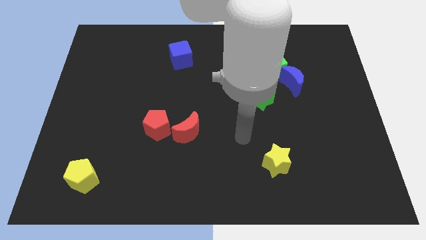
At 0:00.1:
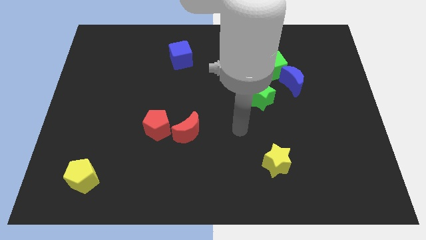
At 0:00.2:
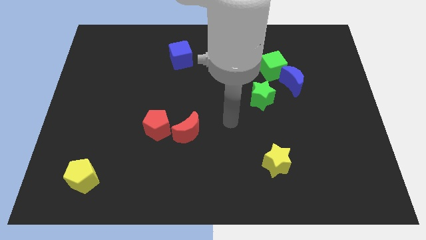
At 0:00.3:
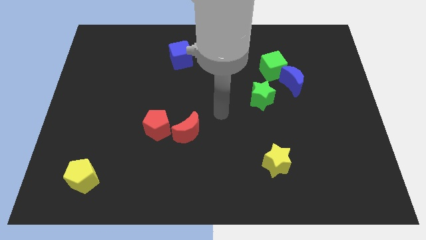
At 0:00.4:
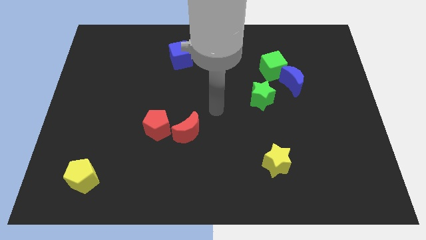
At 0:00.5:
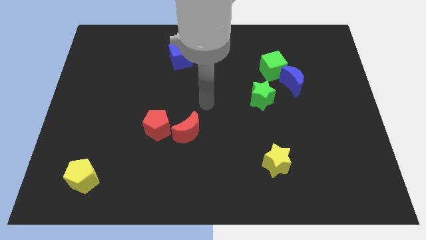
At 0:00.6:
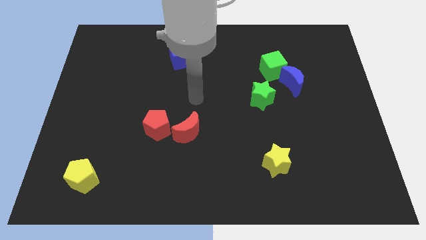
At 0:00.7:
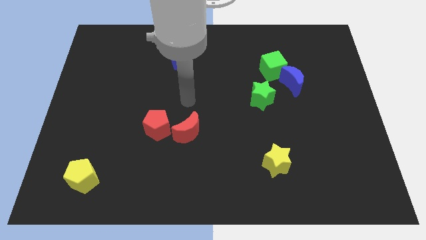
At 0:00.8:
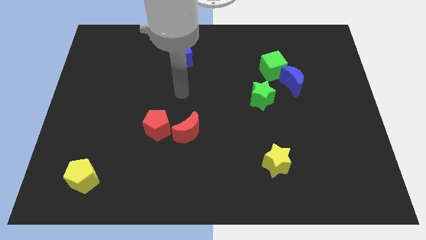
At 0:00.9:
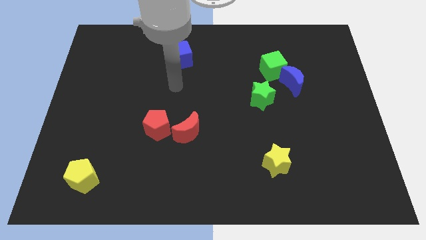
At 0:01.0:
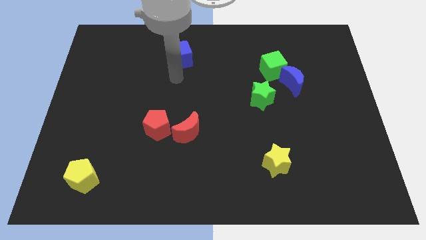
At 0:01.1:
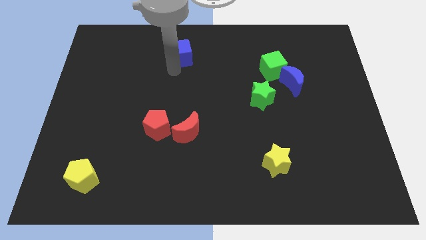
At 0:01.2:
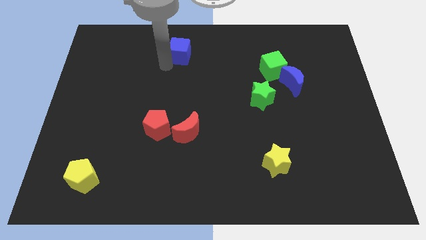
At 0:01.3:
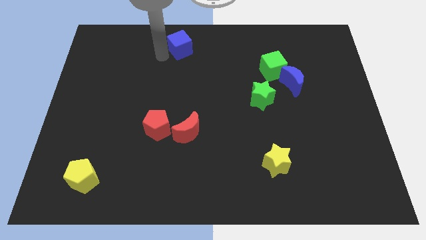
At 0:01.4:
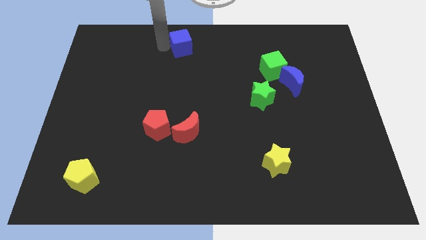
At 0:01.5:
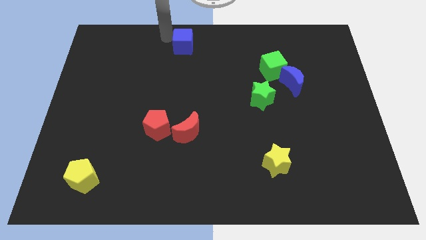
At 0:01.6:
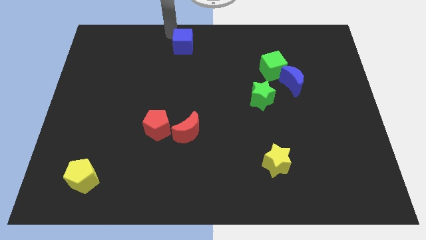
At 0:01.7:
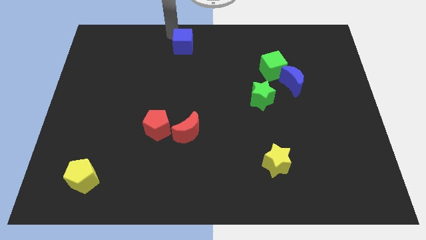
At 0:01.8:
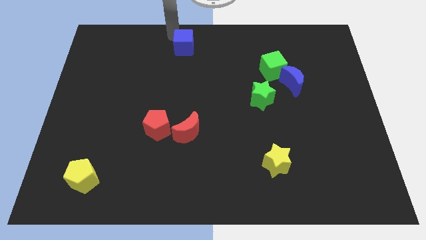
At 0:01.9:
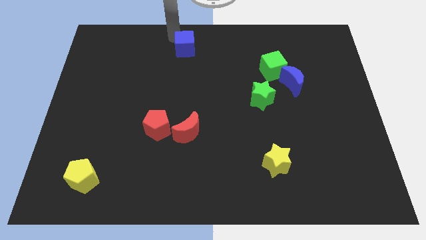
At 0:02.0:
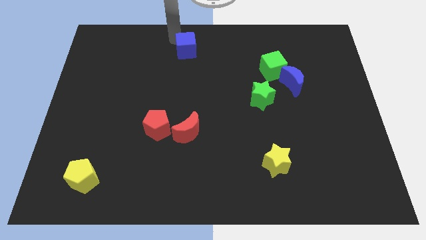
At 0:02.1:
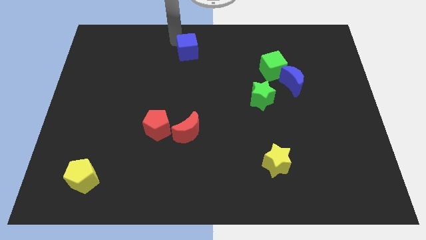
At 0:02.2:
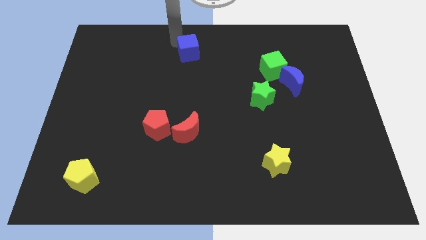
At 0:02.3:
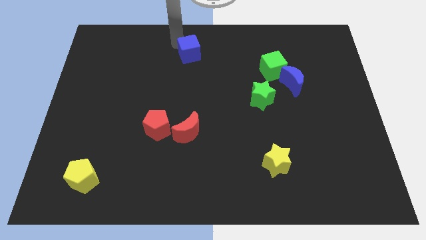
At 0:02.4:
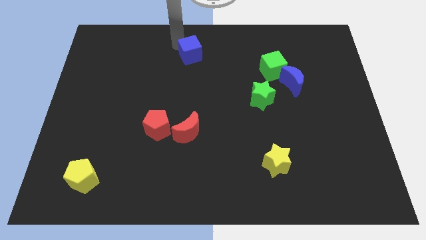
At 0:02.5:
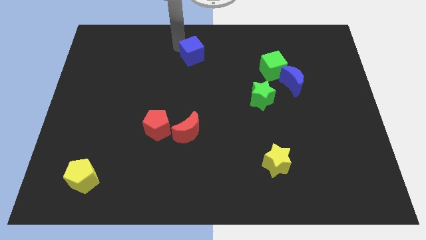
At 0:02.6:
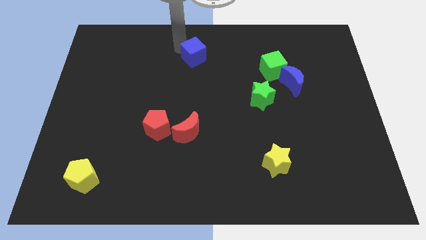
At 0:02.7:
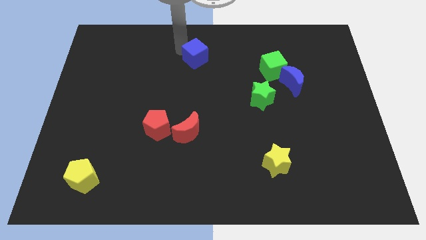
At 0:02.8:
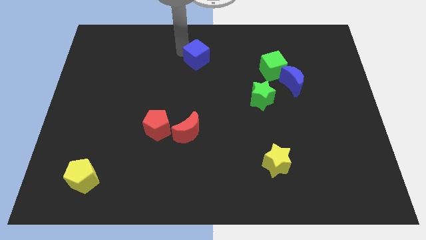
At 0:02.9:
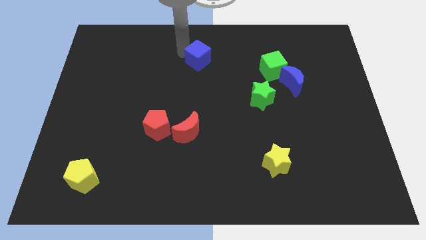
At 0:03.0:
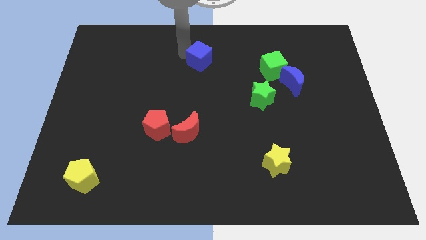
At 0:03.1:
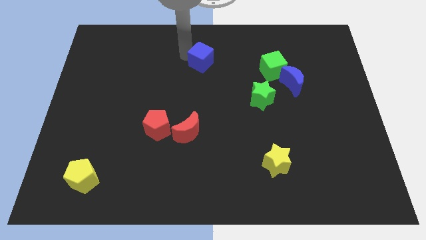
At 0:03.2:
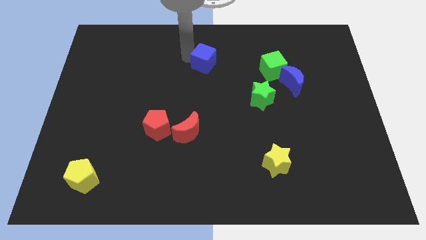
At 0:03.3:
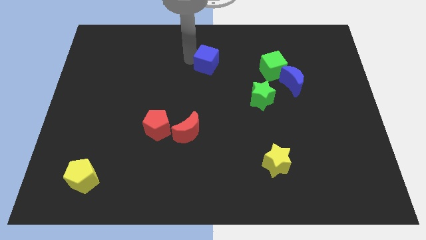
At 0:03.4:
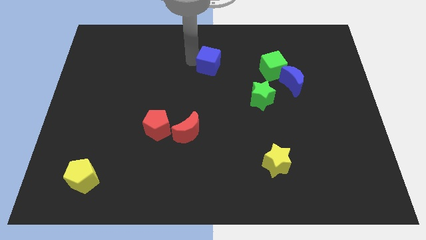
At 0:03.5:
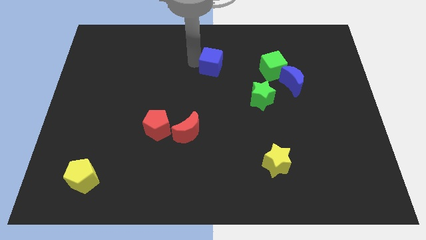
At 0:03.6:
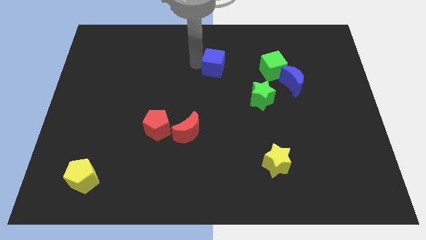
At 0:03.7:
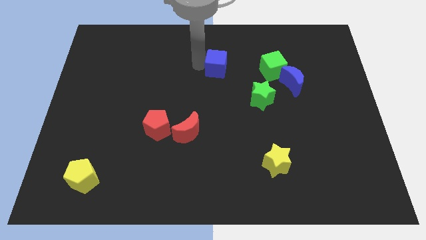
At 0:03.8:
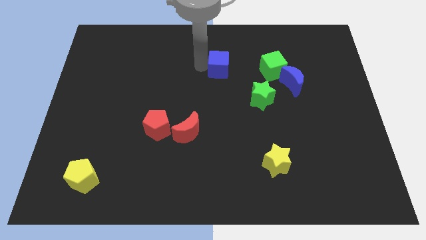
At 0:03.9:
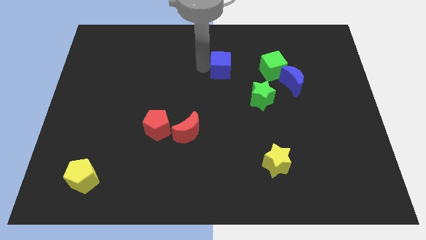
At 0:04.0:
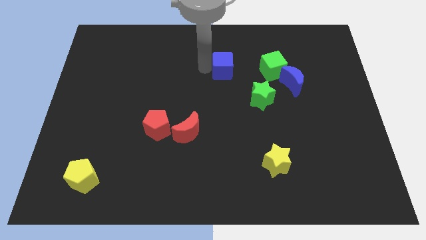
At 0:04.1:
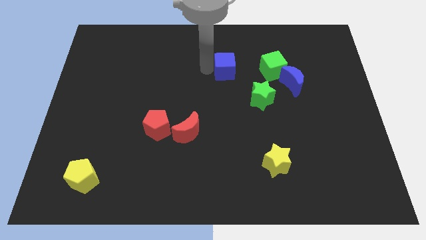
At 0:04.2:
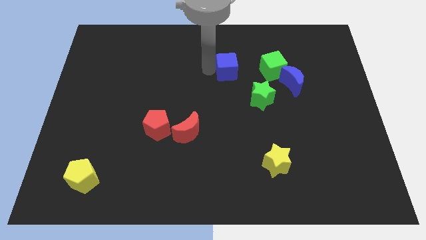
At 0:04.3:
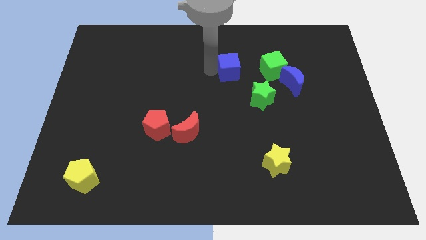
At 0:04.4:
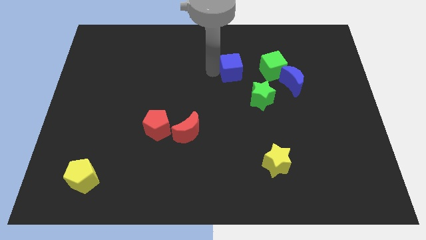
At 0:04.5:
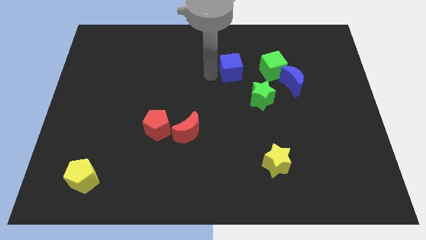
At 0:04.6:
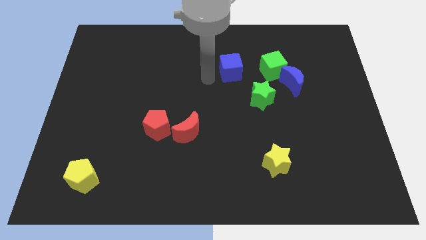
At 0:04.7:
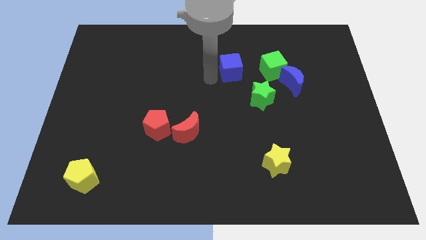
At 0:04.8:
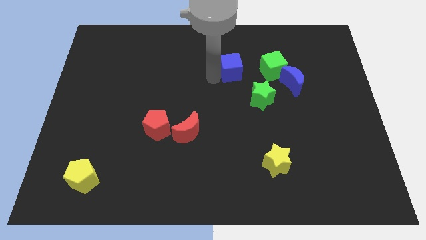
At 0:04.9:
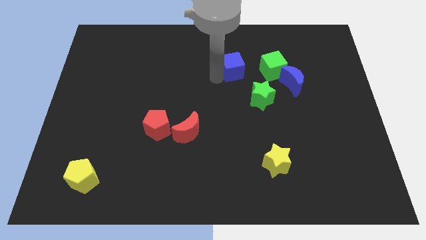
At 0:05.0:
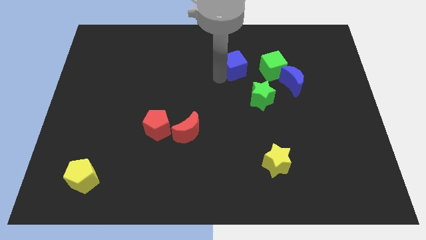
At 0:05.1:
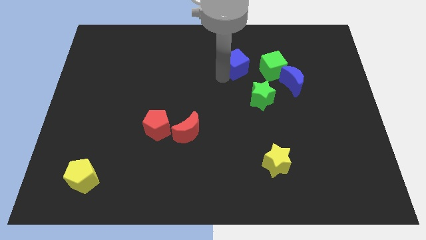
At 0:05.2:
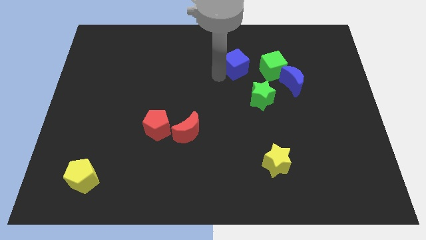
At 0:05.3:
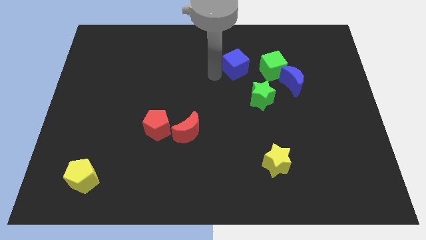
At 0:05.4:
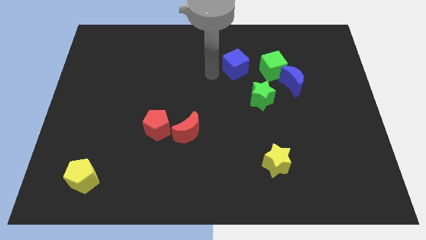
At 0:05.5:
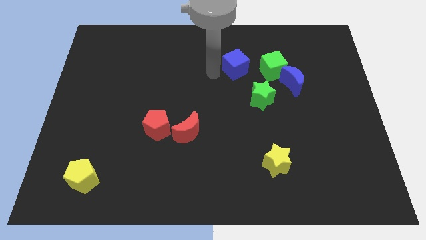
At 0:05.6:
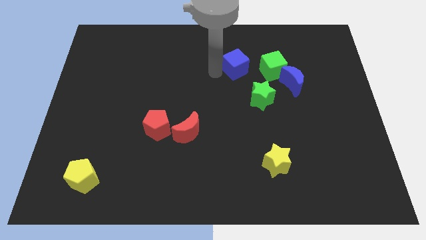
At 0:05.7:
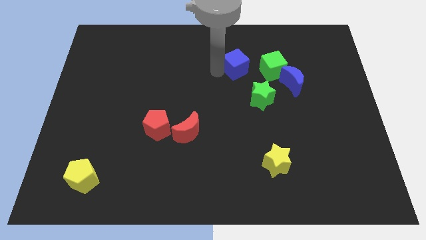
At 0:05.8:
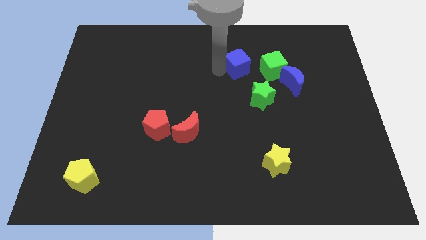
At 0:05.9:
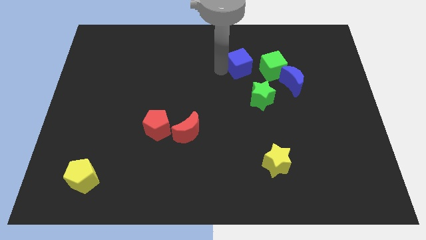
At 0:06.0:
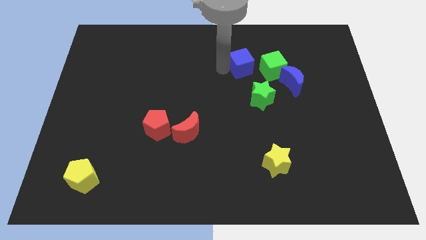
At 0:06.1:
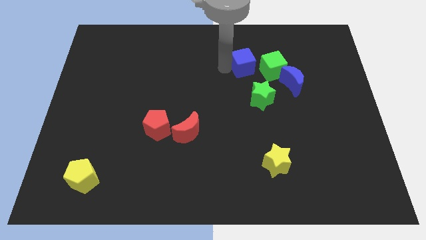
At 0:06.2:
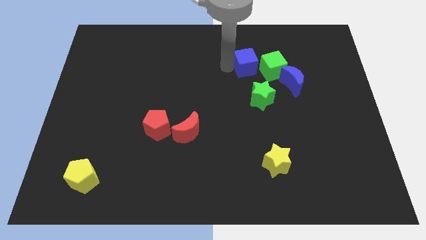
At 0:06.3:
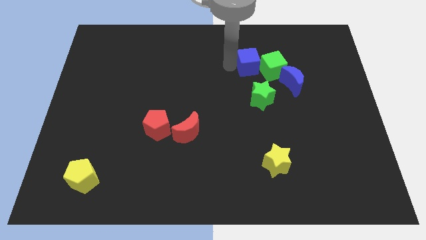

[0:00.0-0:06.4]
push the blue cube close to the green cube
